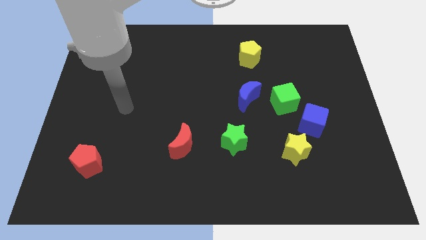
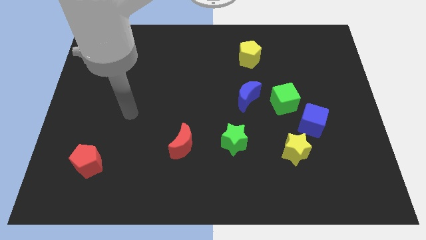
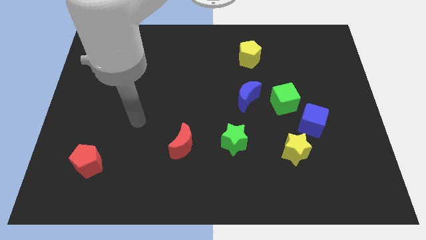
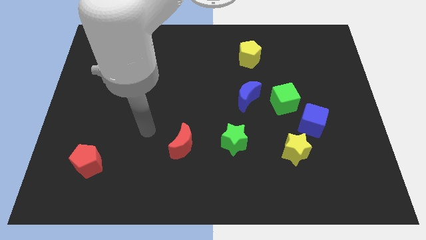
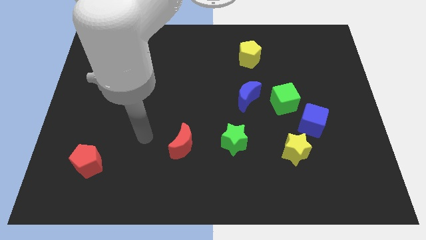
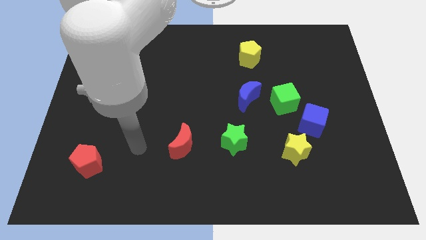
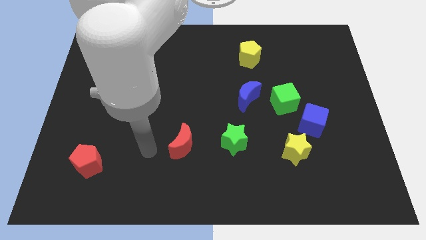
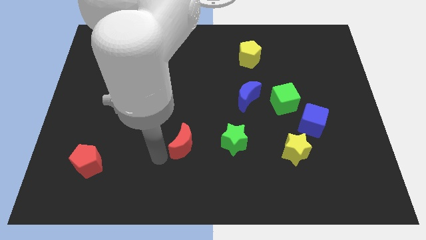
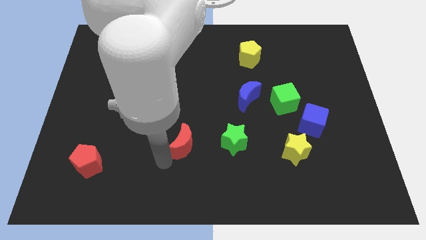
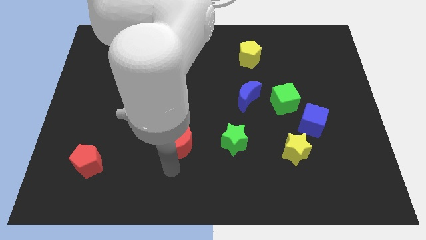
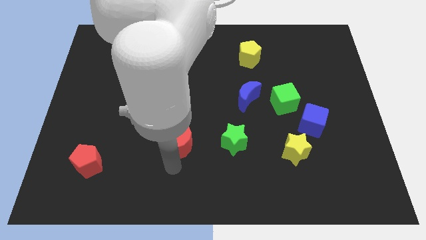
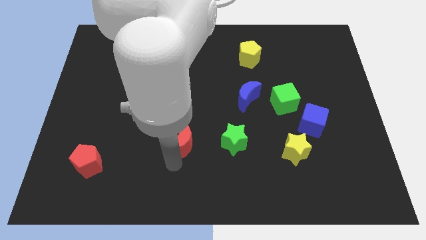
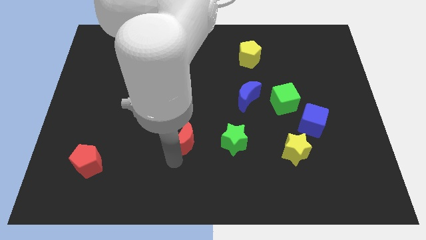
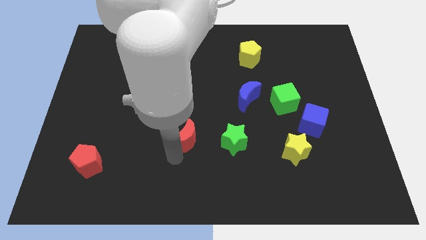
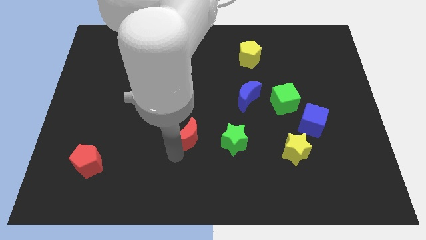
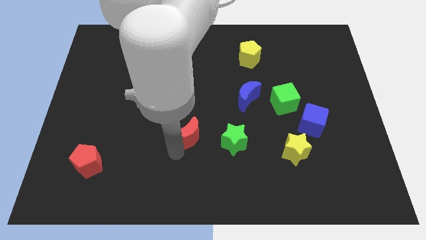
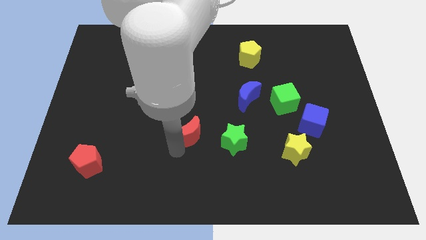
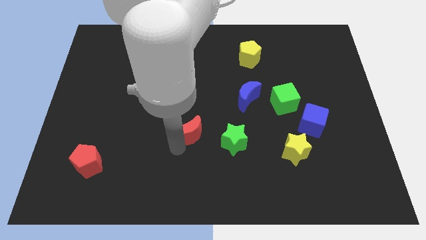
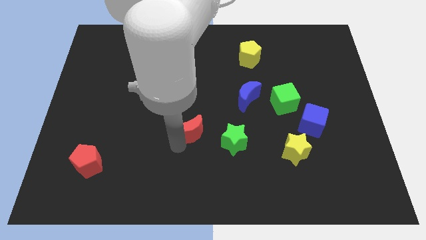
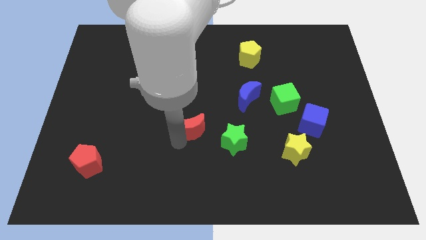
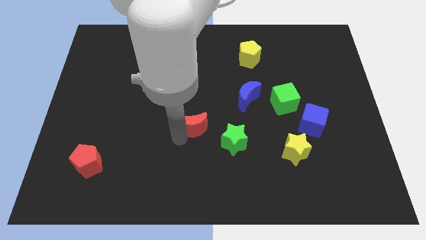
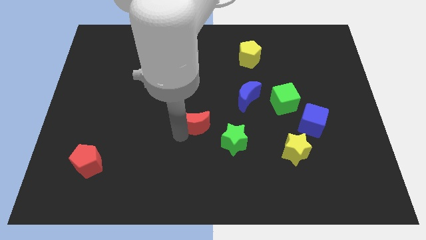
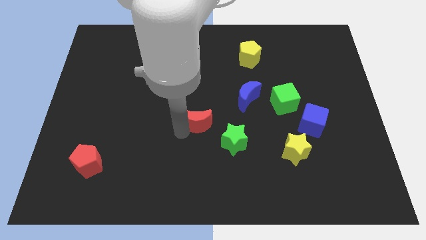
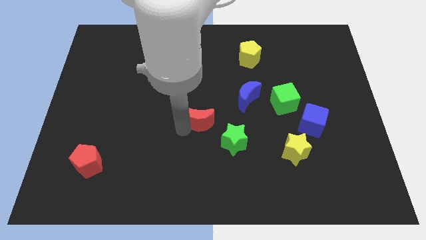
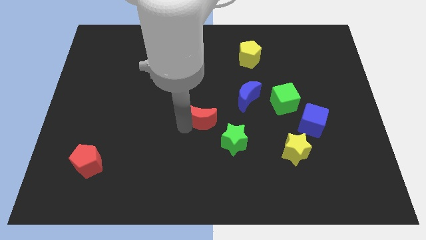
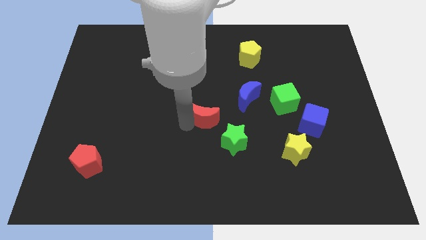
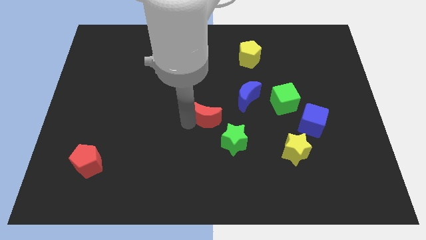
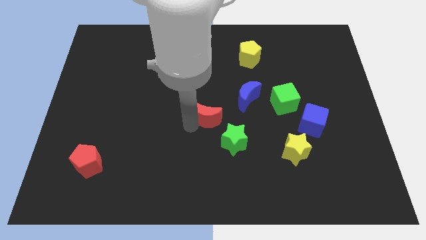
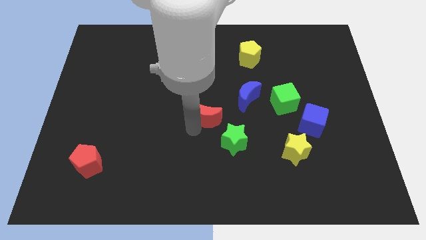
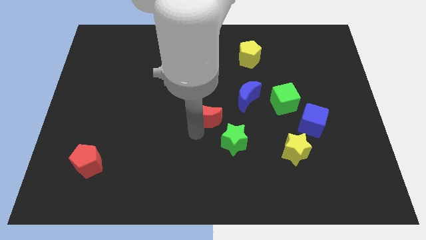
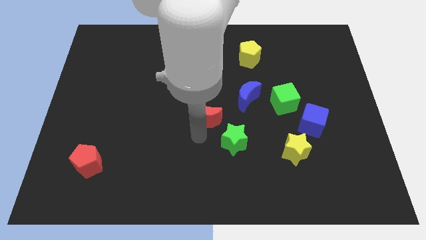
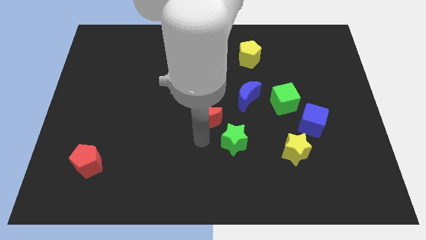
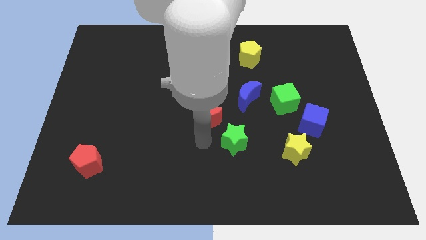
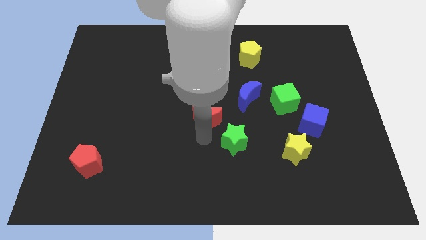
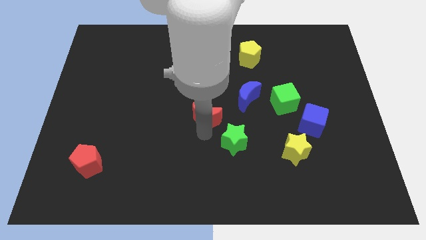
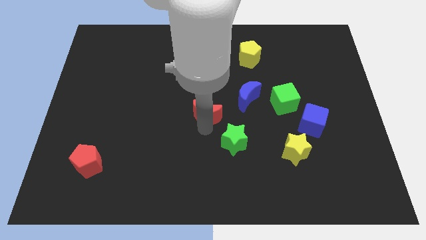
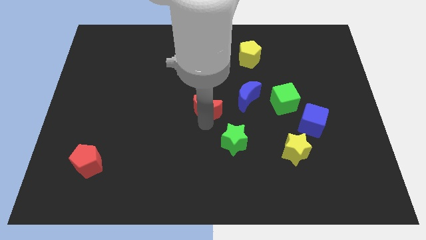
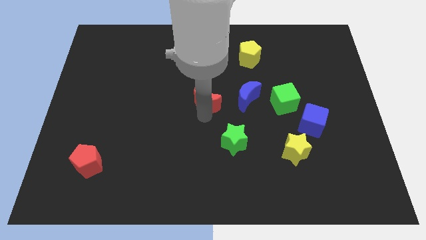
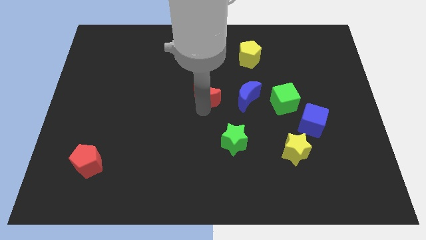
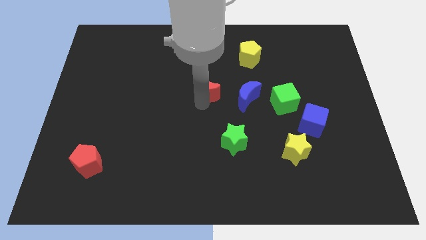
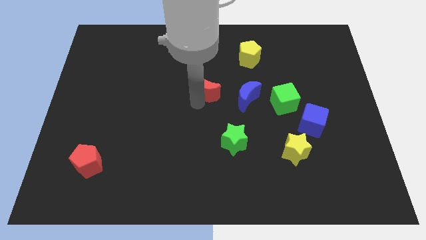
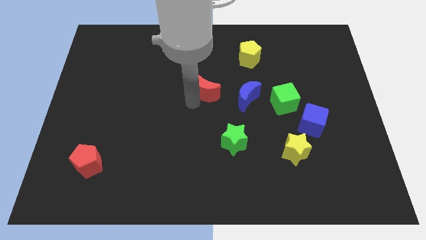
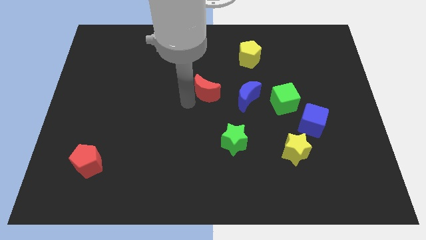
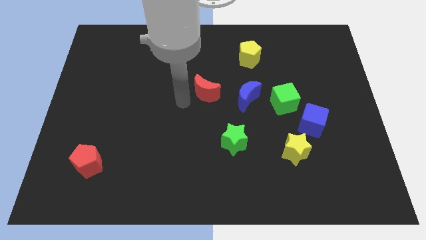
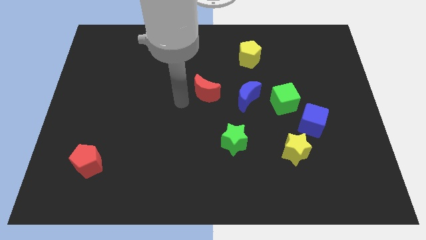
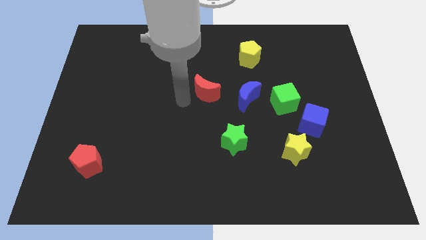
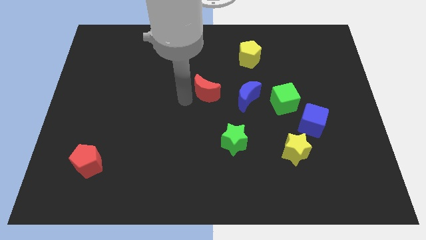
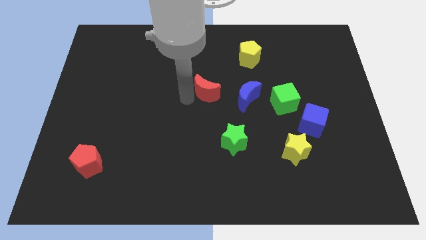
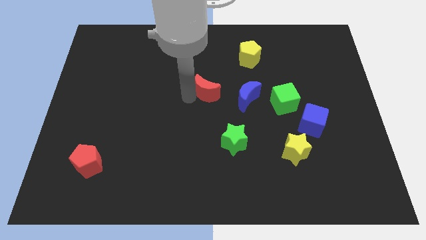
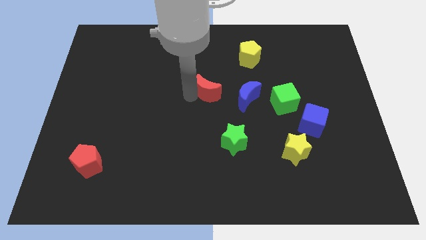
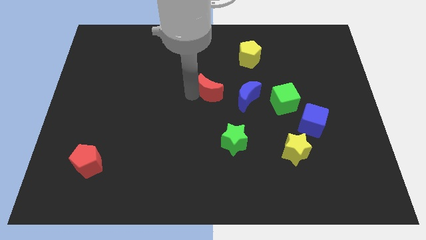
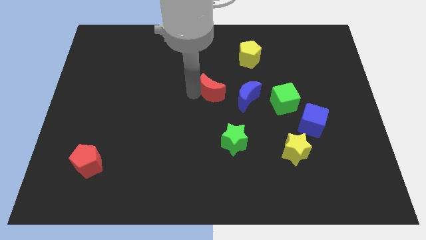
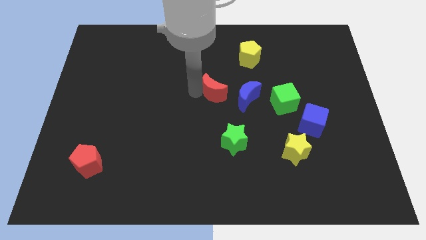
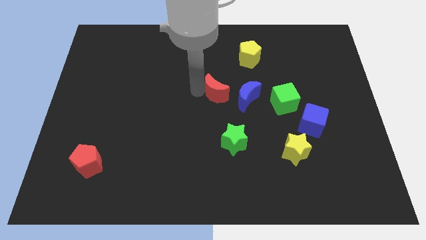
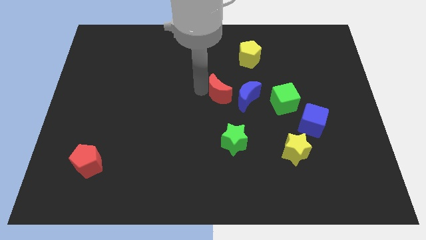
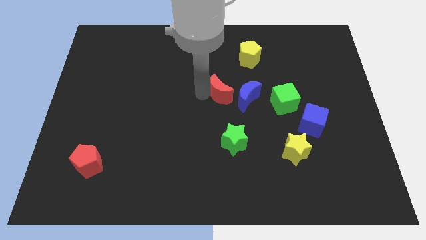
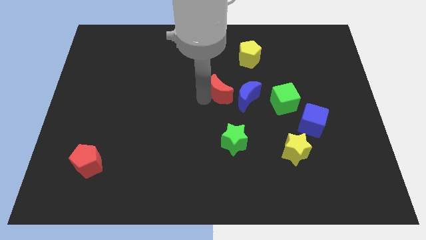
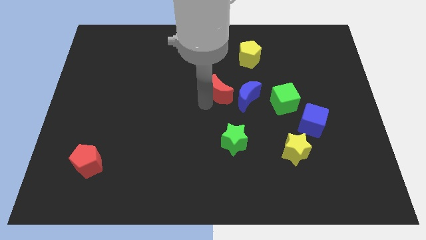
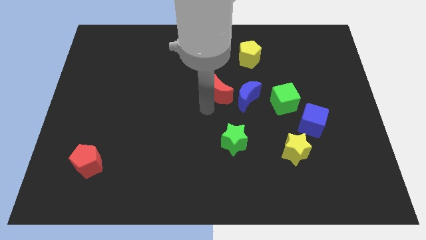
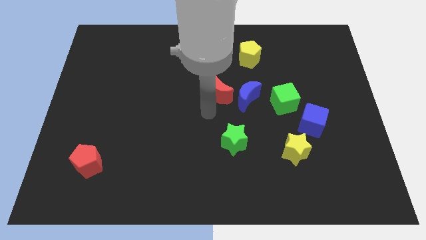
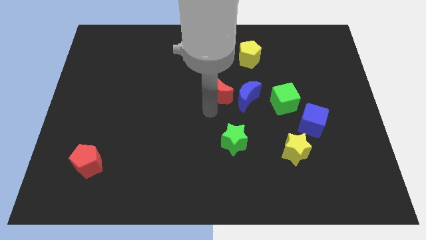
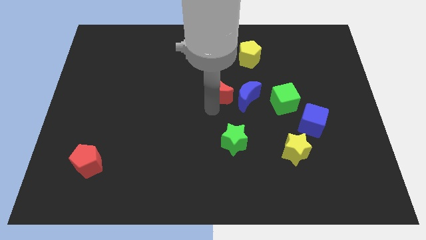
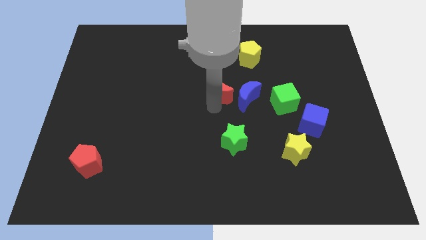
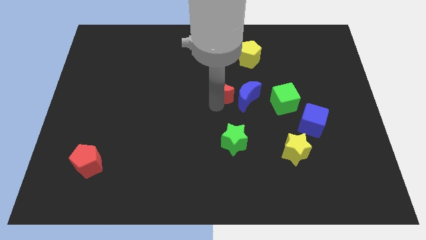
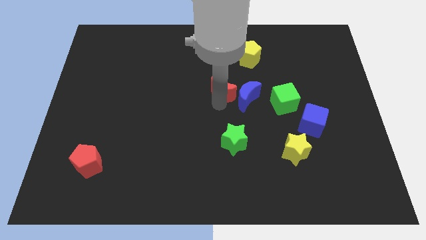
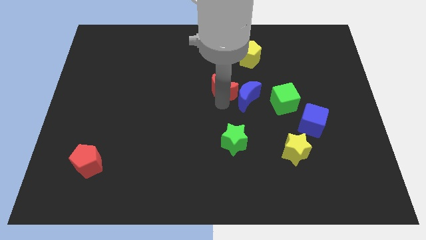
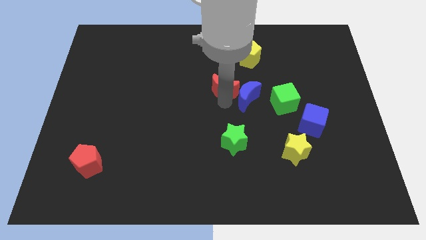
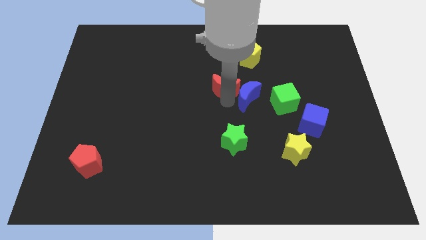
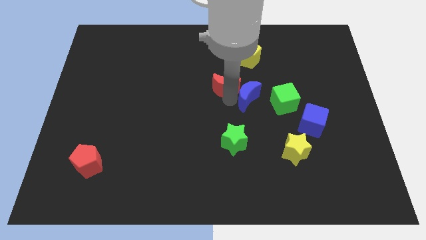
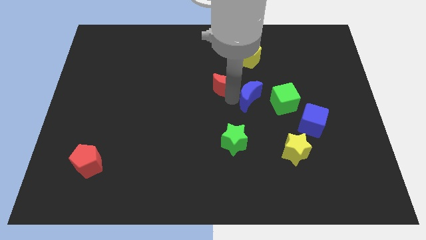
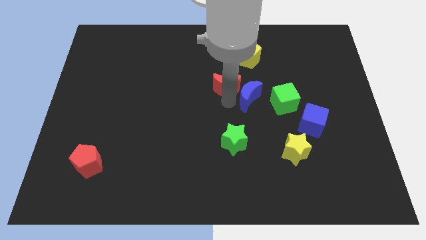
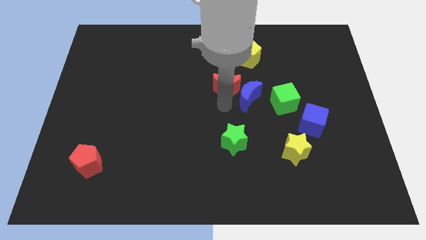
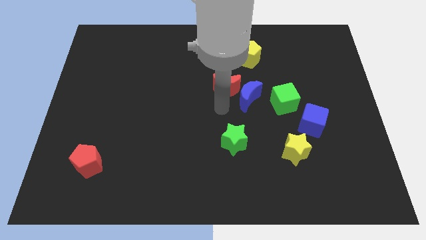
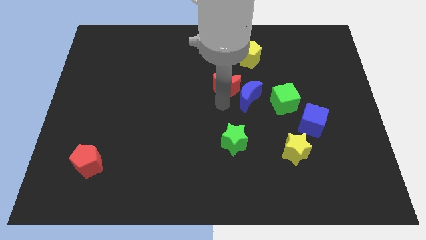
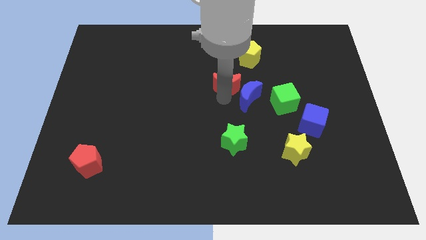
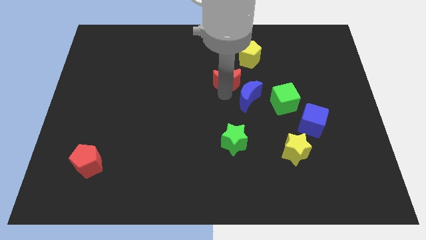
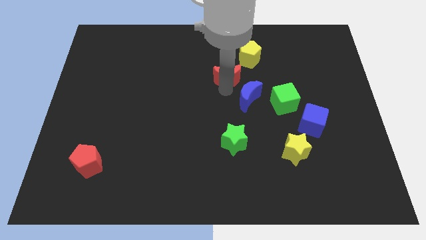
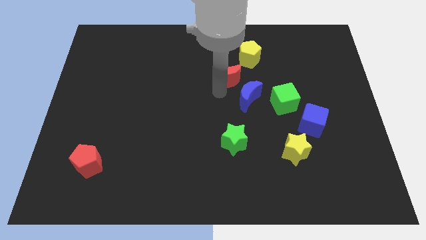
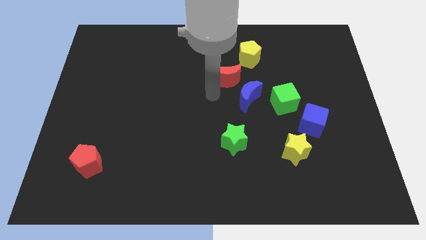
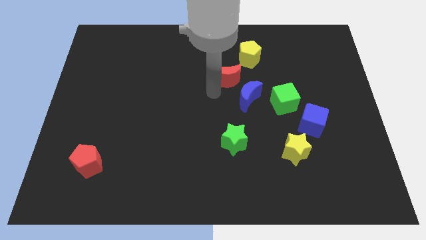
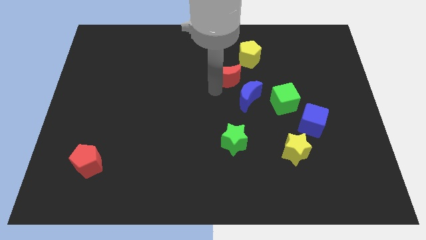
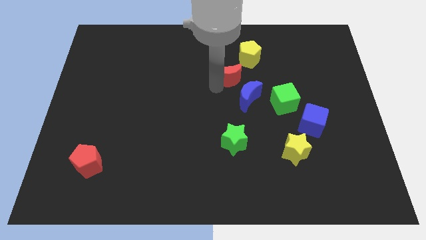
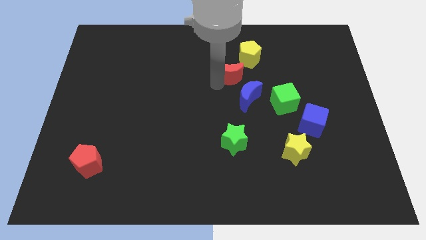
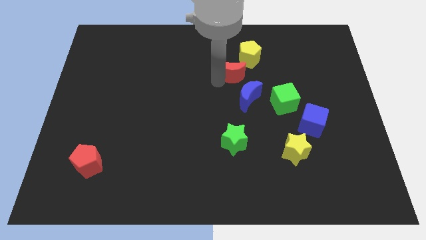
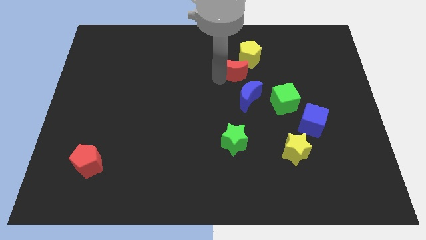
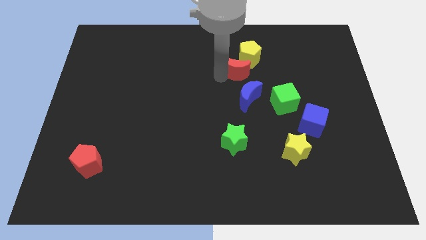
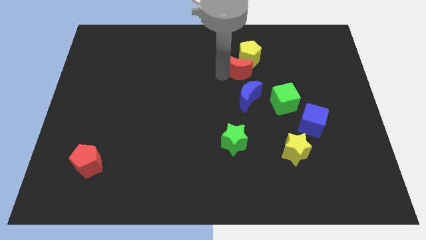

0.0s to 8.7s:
push the red moon towards the yellow pentagon

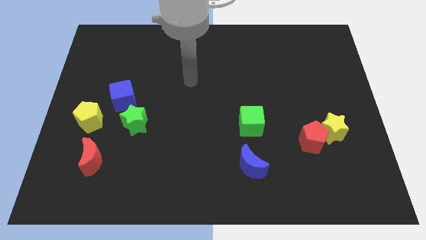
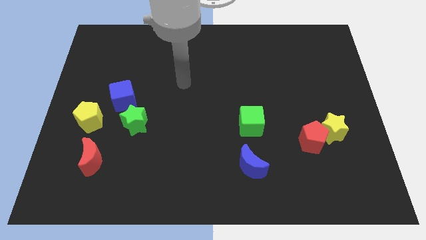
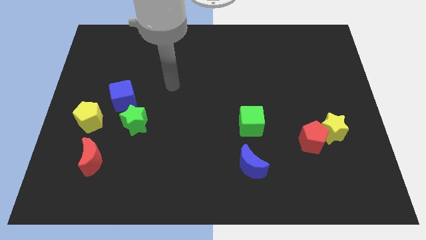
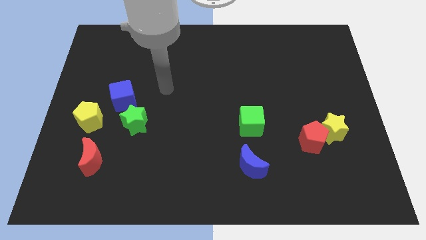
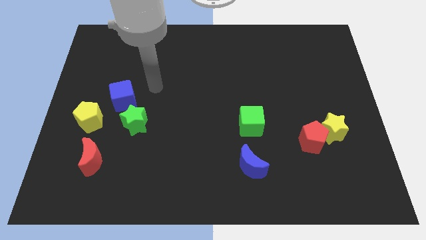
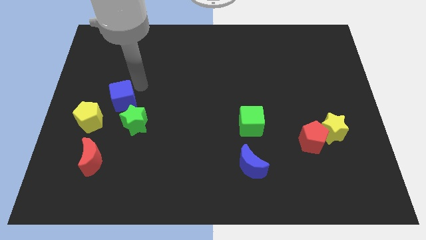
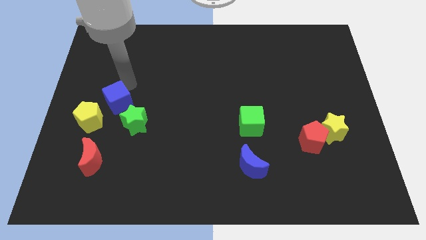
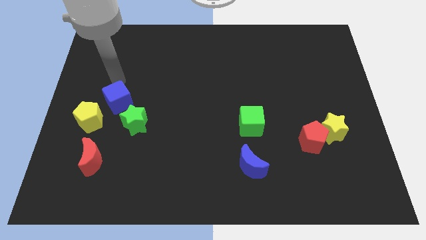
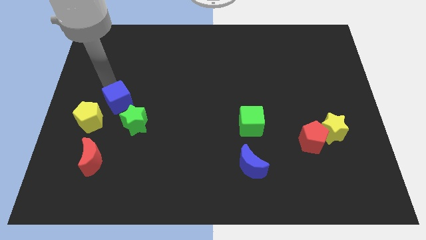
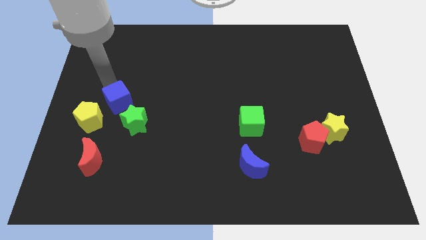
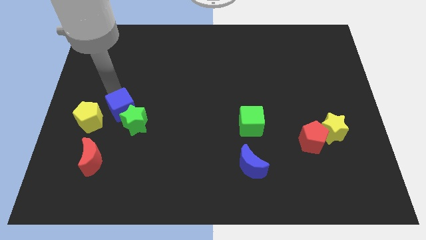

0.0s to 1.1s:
slide the blue cube towards the green star
